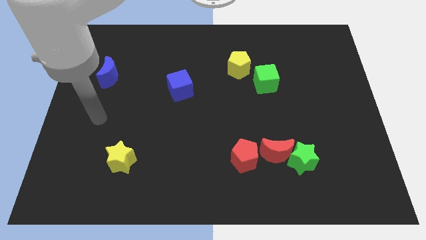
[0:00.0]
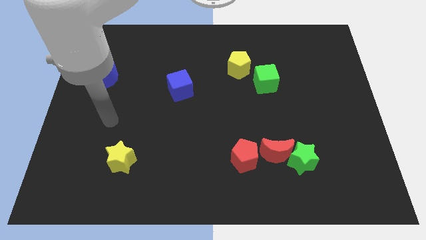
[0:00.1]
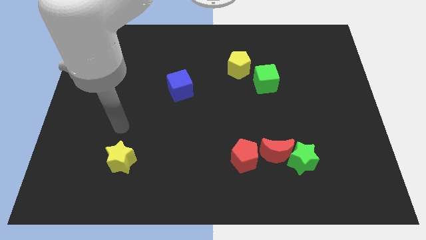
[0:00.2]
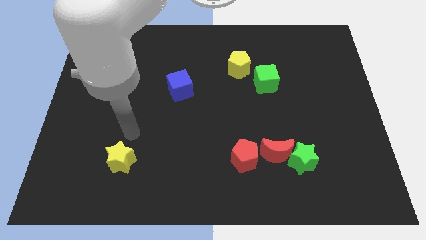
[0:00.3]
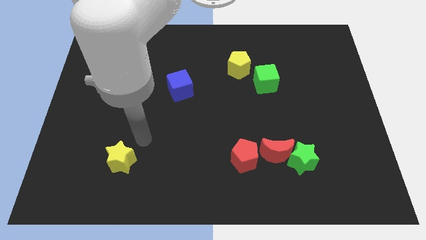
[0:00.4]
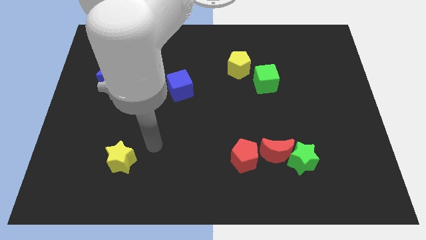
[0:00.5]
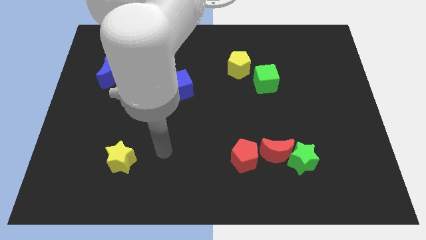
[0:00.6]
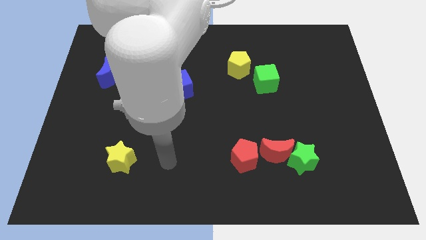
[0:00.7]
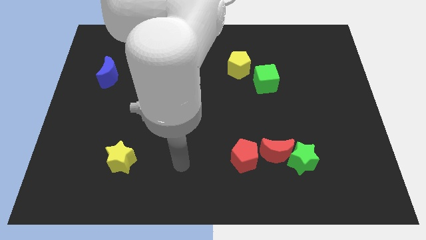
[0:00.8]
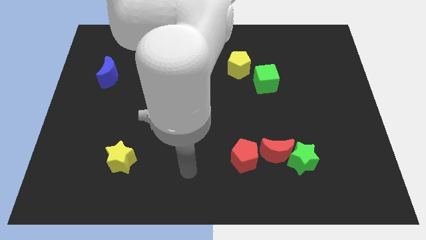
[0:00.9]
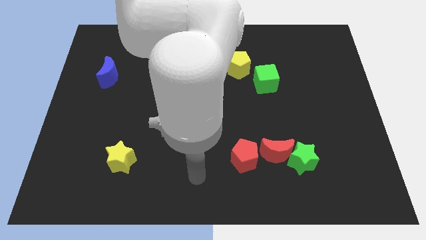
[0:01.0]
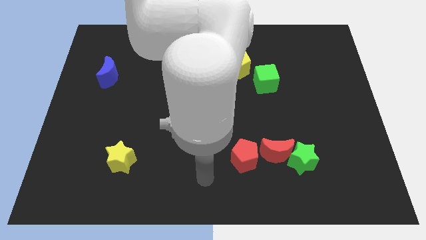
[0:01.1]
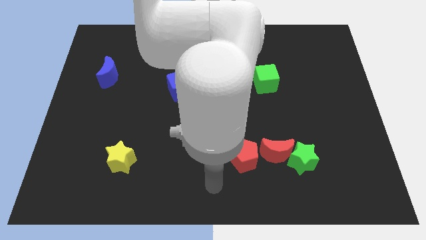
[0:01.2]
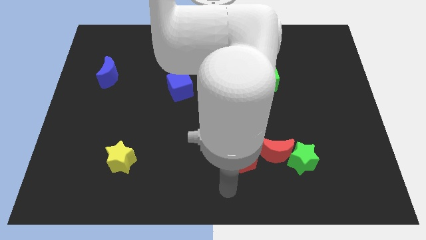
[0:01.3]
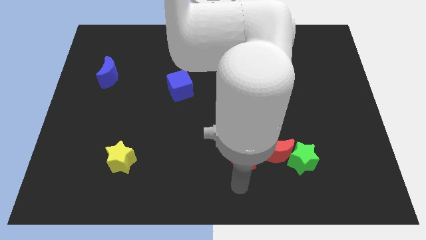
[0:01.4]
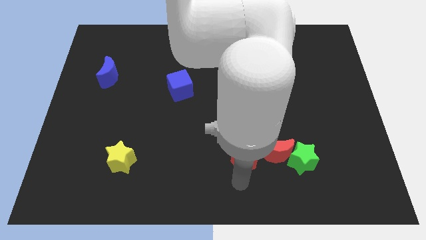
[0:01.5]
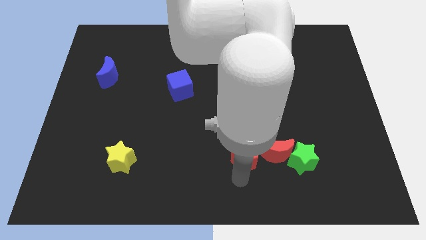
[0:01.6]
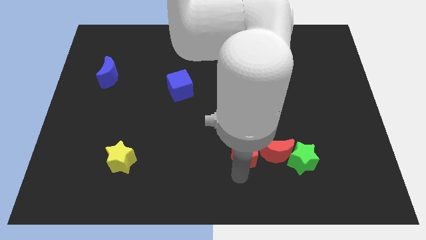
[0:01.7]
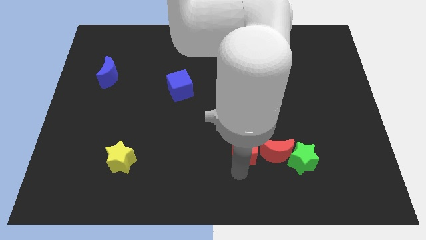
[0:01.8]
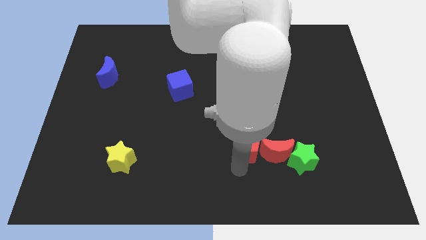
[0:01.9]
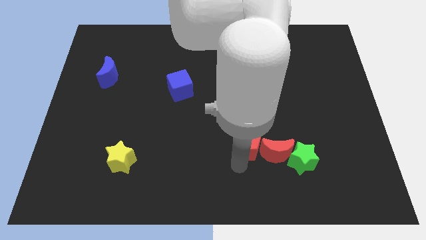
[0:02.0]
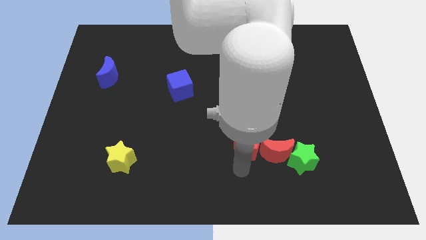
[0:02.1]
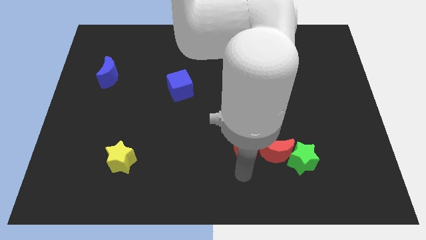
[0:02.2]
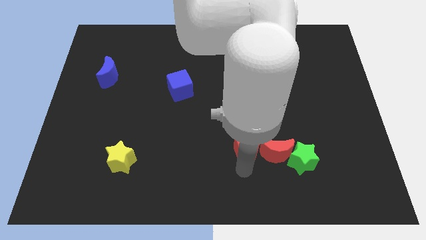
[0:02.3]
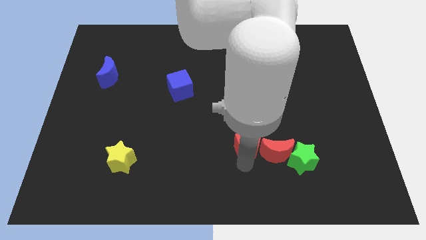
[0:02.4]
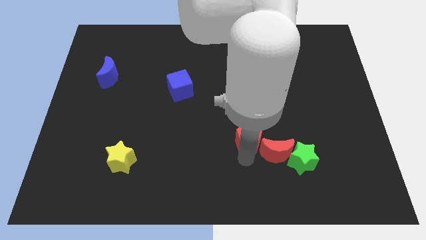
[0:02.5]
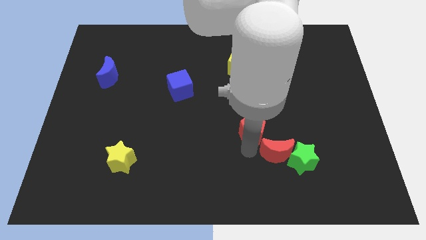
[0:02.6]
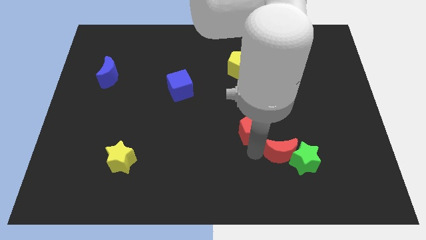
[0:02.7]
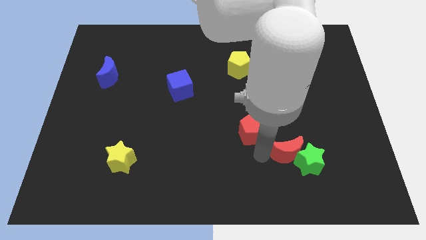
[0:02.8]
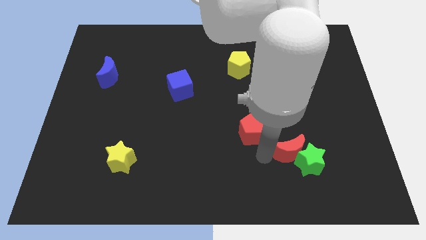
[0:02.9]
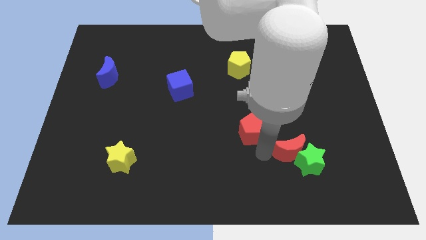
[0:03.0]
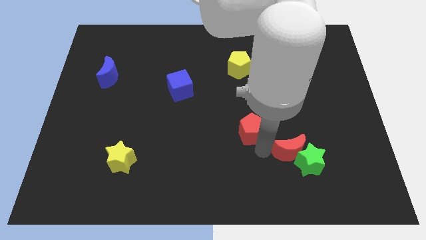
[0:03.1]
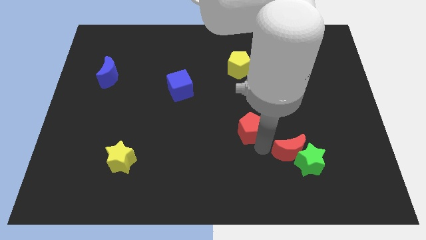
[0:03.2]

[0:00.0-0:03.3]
slide the red pentagon a little up

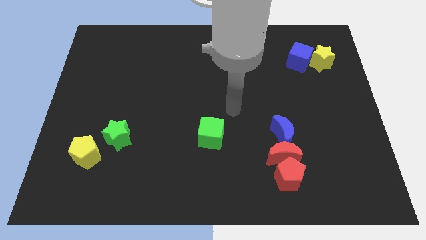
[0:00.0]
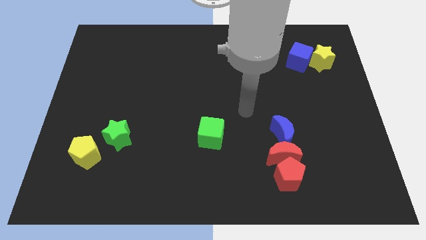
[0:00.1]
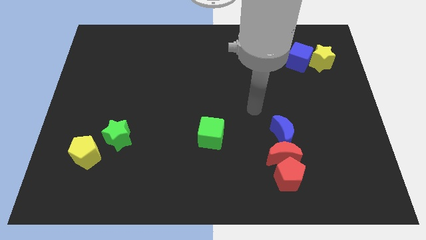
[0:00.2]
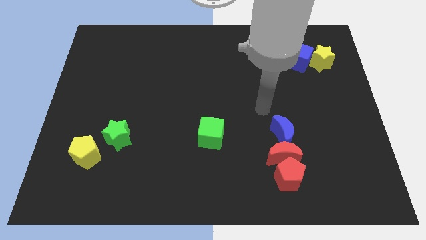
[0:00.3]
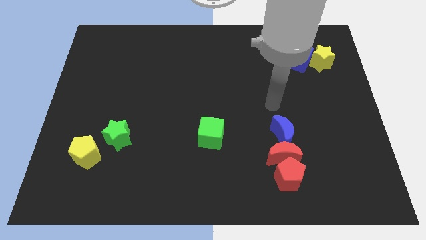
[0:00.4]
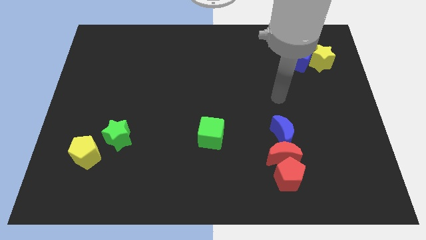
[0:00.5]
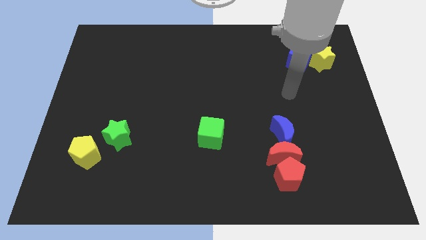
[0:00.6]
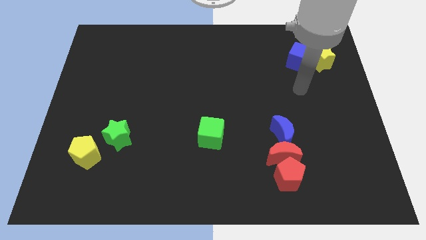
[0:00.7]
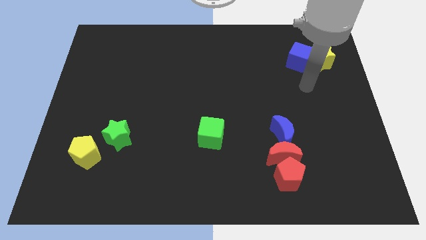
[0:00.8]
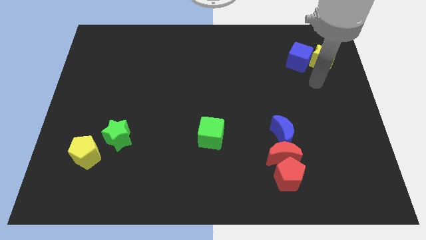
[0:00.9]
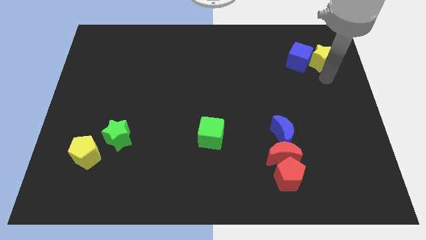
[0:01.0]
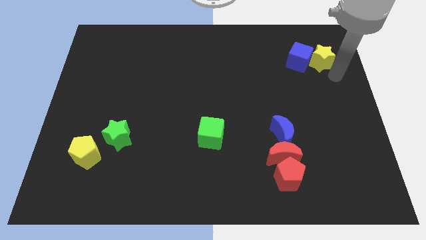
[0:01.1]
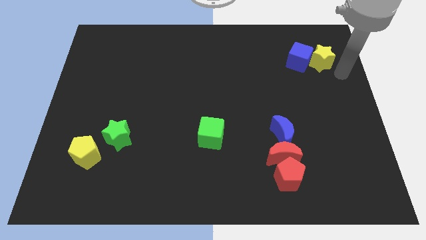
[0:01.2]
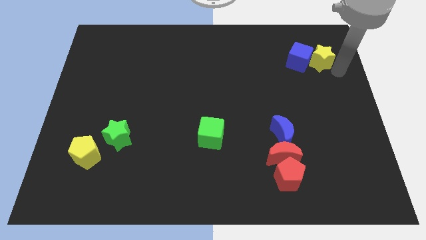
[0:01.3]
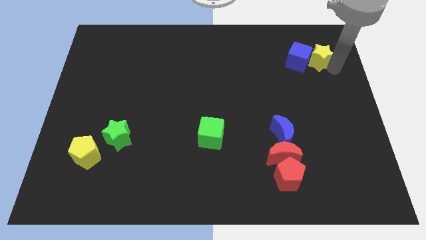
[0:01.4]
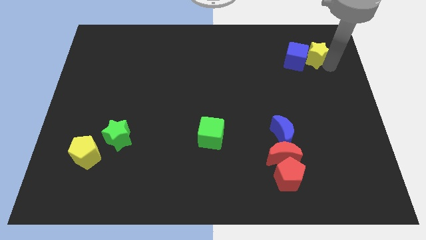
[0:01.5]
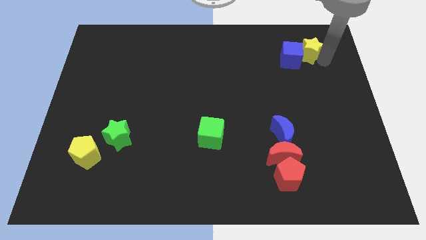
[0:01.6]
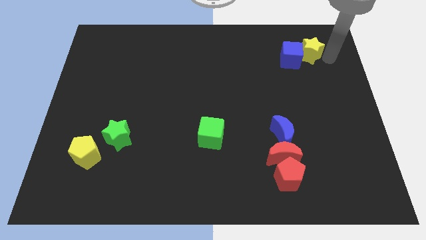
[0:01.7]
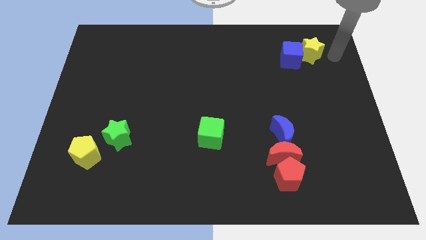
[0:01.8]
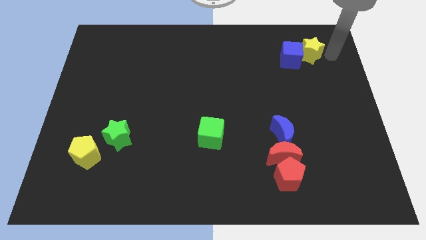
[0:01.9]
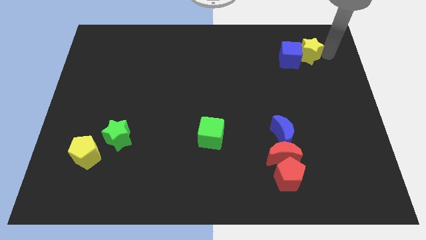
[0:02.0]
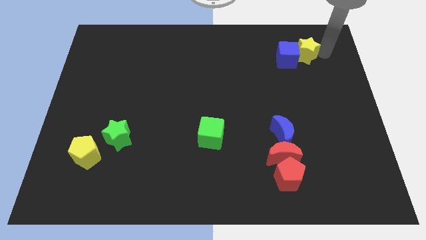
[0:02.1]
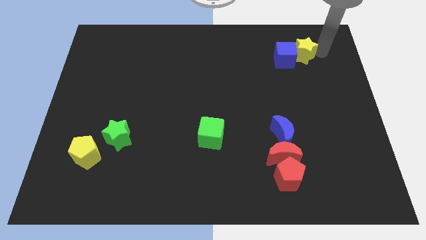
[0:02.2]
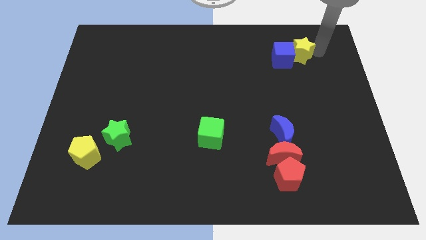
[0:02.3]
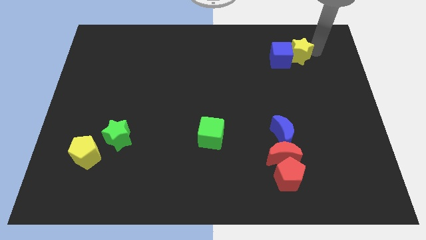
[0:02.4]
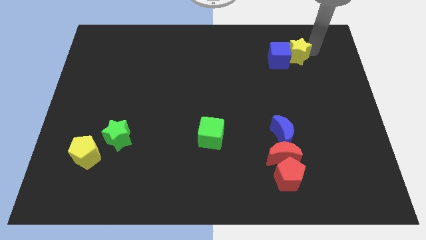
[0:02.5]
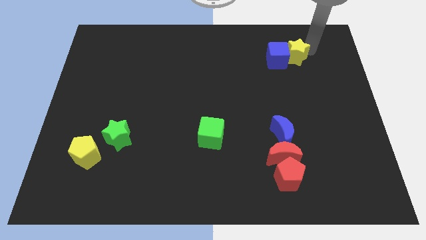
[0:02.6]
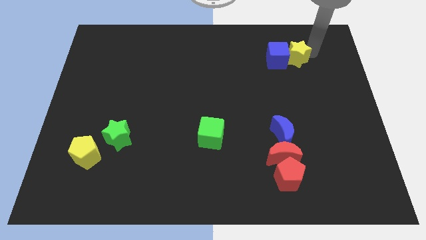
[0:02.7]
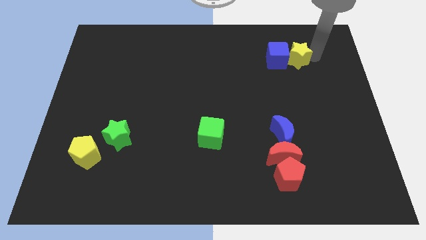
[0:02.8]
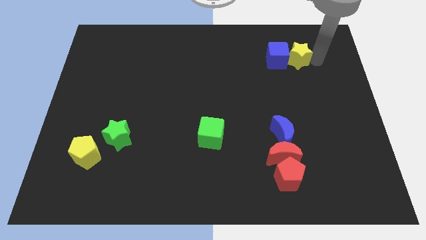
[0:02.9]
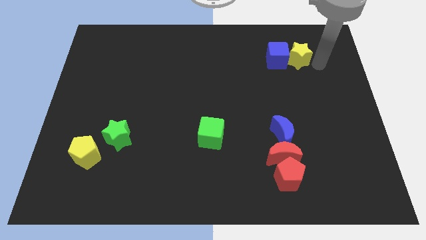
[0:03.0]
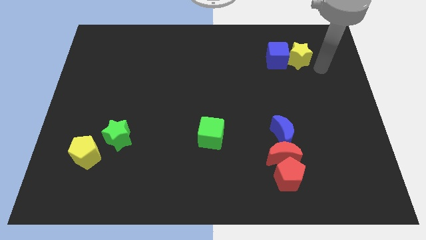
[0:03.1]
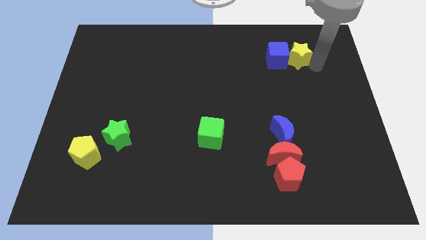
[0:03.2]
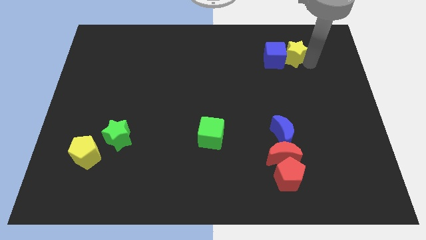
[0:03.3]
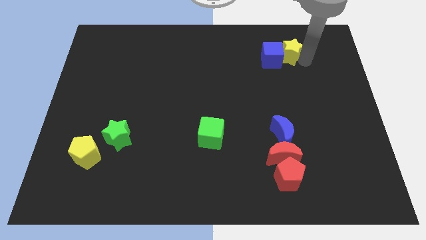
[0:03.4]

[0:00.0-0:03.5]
move the yellow star to the left somewhat

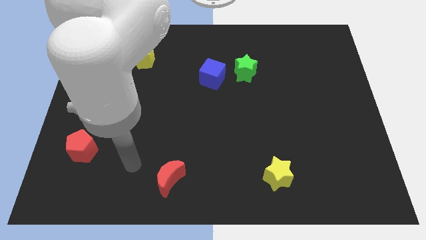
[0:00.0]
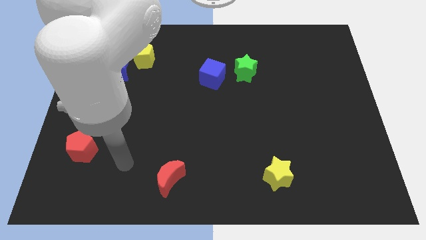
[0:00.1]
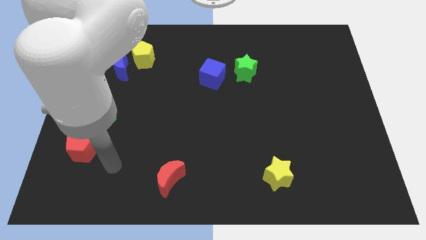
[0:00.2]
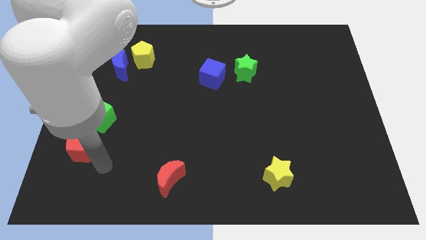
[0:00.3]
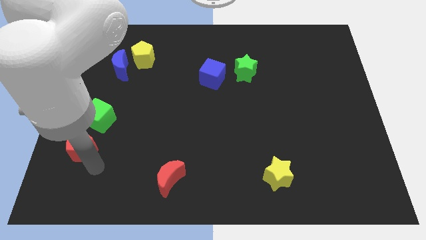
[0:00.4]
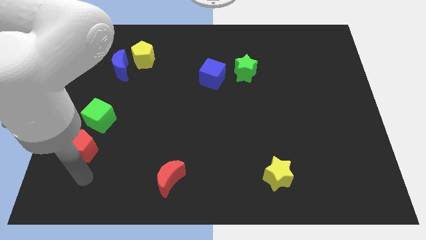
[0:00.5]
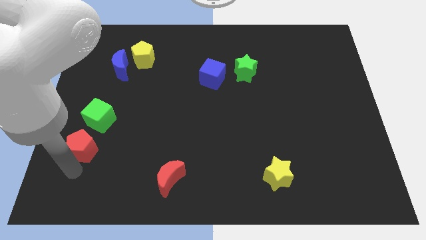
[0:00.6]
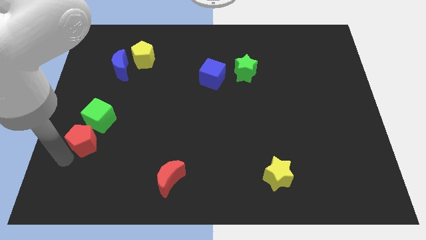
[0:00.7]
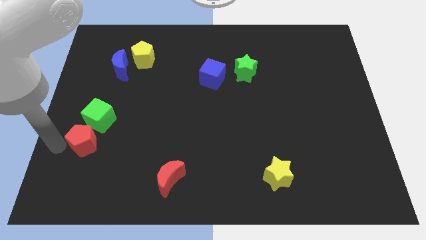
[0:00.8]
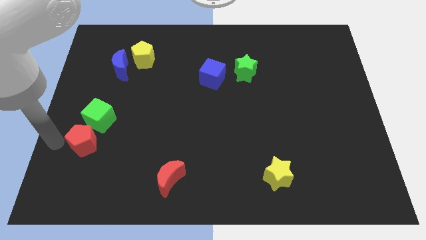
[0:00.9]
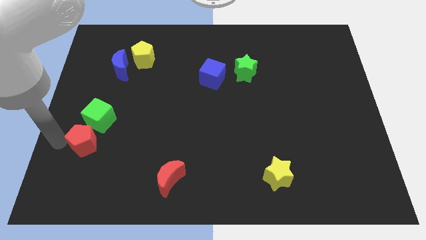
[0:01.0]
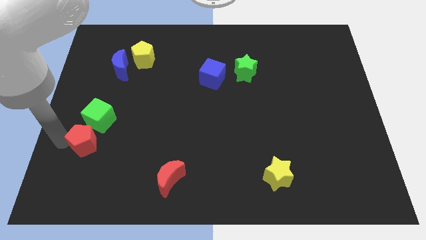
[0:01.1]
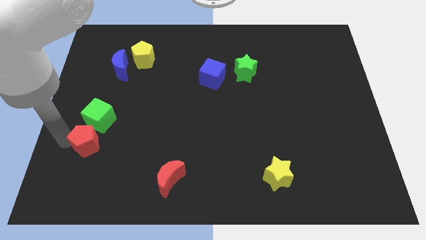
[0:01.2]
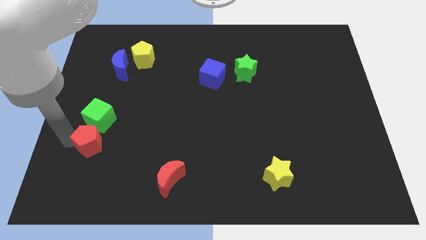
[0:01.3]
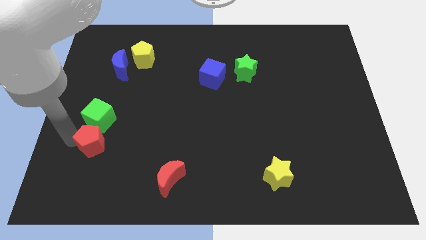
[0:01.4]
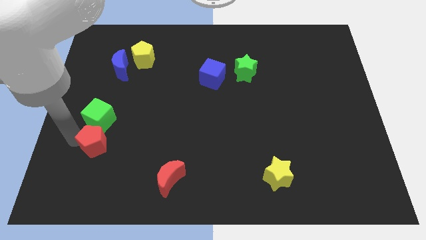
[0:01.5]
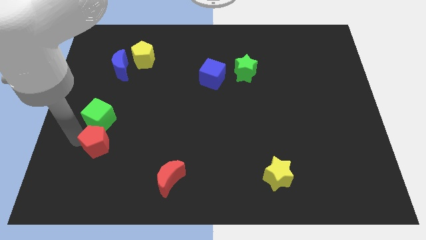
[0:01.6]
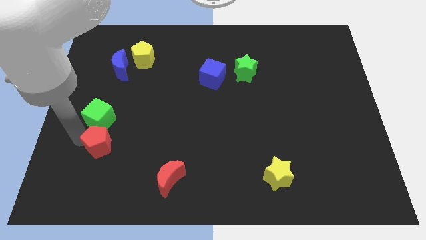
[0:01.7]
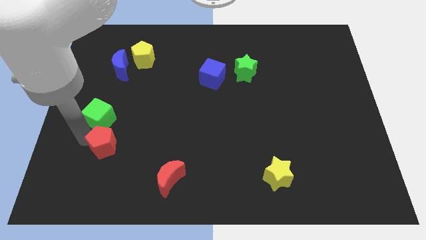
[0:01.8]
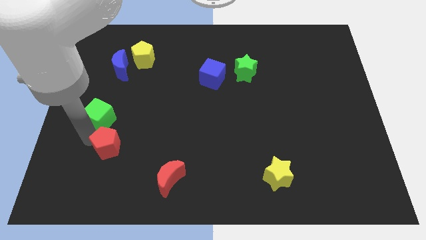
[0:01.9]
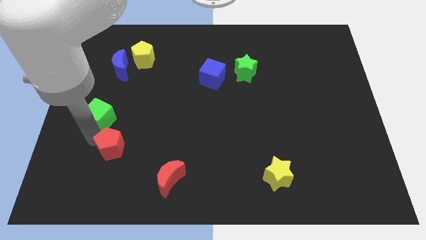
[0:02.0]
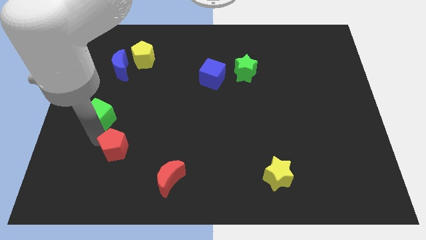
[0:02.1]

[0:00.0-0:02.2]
slide the red pentagon a little right
